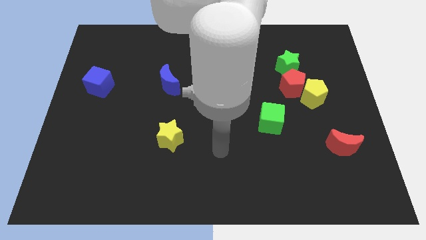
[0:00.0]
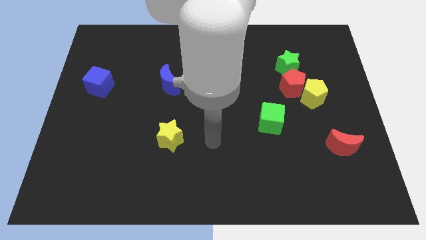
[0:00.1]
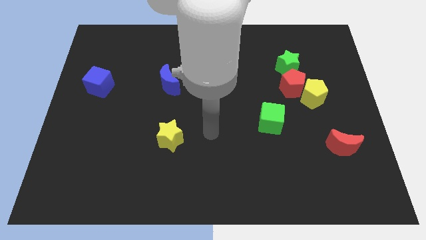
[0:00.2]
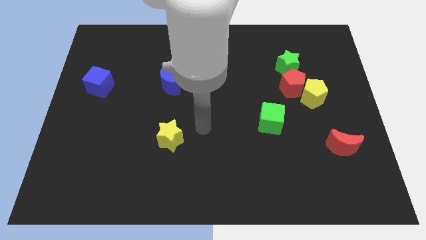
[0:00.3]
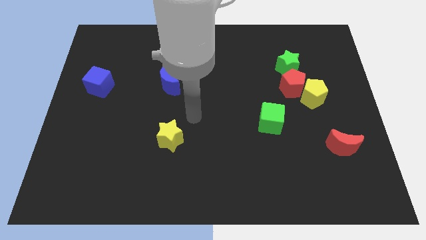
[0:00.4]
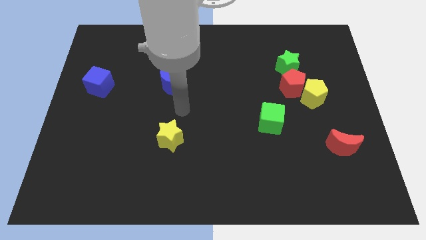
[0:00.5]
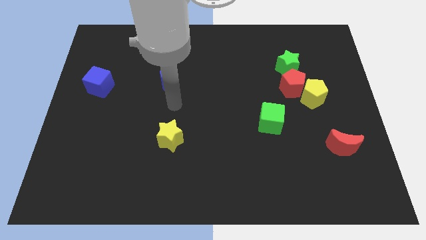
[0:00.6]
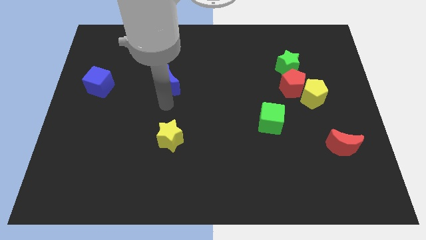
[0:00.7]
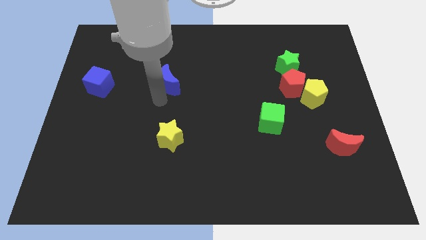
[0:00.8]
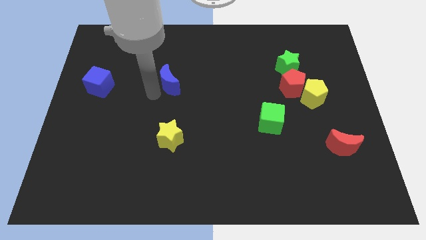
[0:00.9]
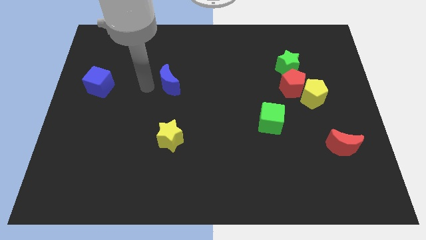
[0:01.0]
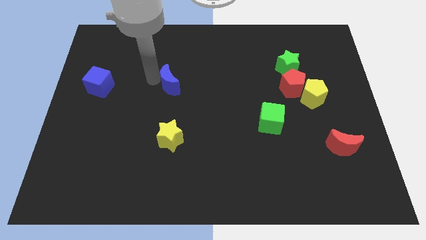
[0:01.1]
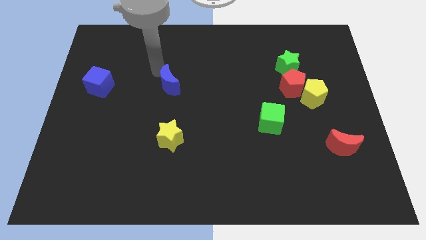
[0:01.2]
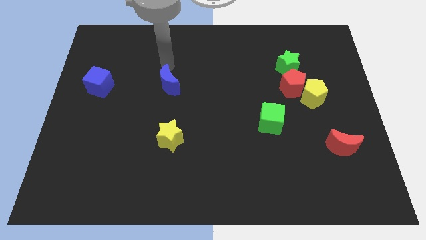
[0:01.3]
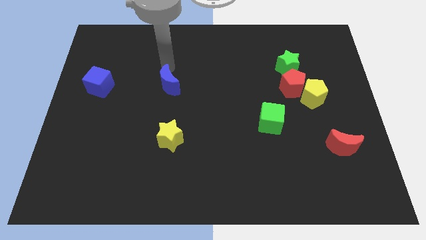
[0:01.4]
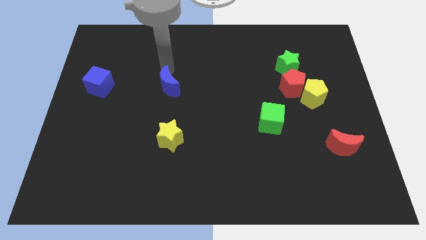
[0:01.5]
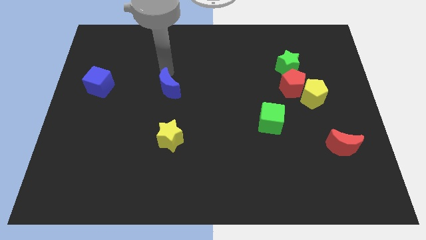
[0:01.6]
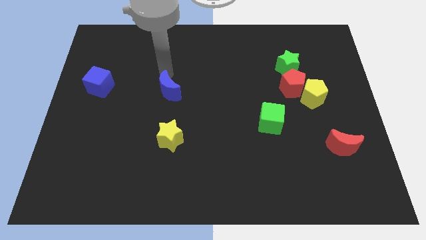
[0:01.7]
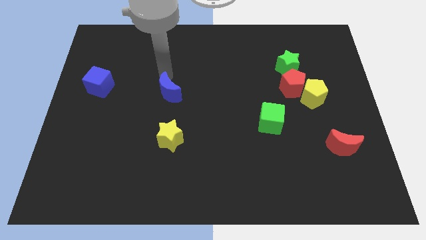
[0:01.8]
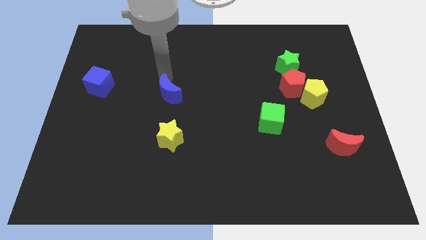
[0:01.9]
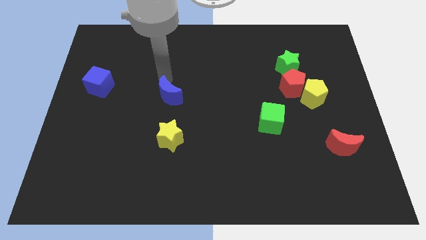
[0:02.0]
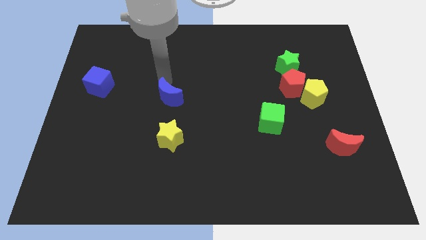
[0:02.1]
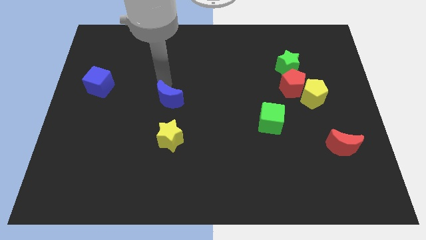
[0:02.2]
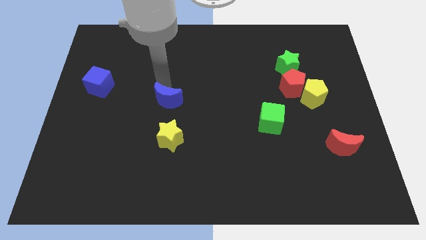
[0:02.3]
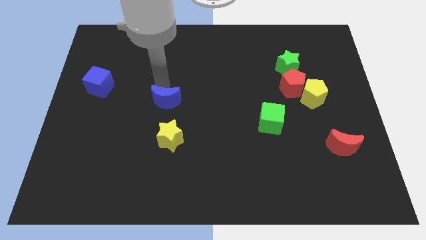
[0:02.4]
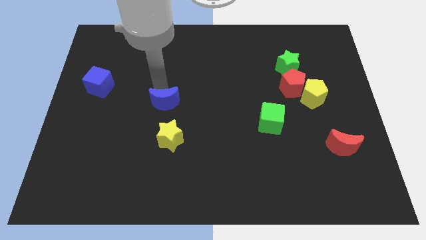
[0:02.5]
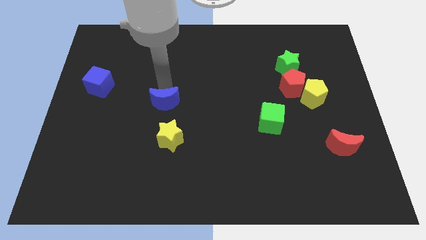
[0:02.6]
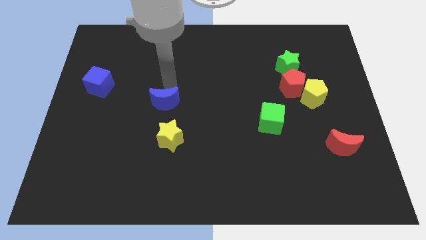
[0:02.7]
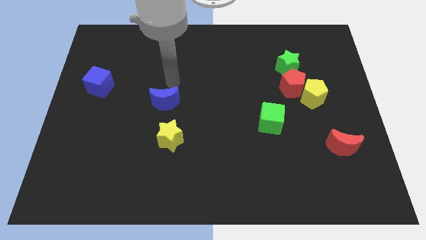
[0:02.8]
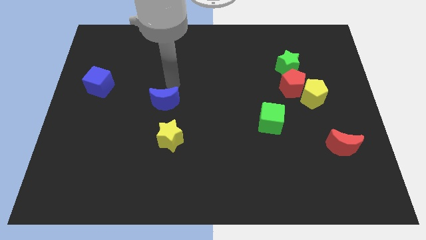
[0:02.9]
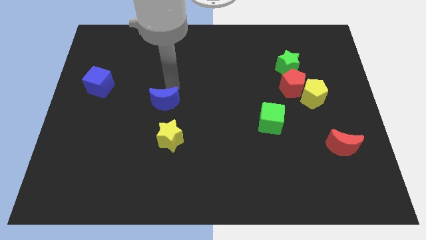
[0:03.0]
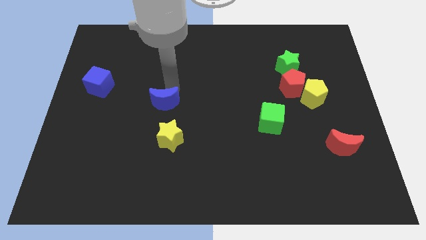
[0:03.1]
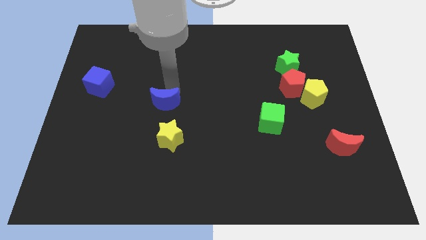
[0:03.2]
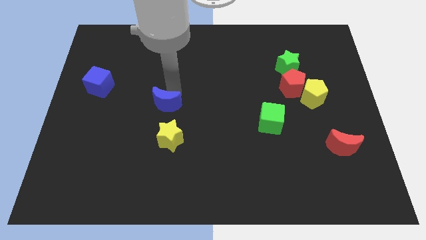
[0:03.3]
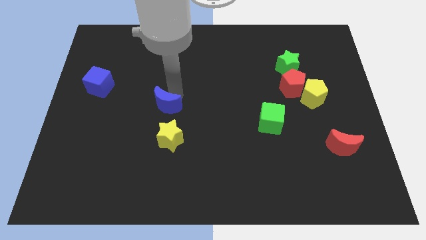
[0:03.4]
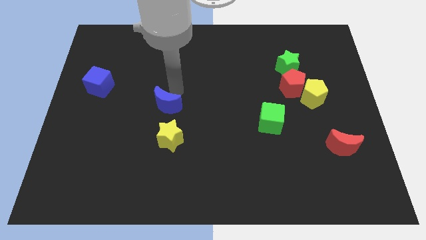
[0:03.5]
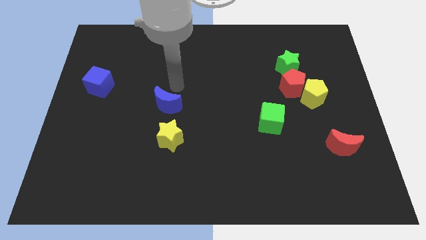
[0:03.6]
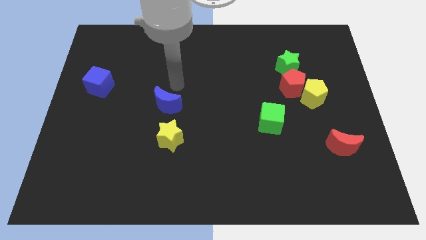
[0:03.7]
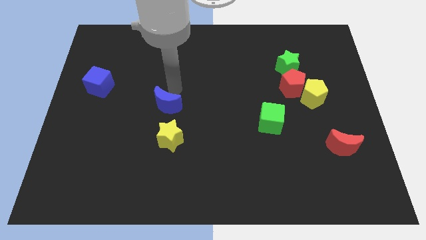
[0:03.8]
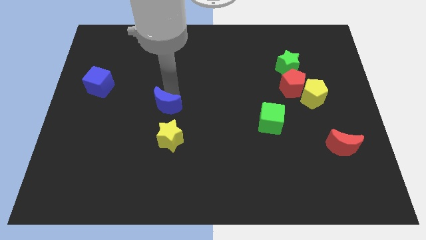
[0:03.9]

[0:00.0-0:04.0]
slightly move the blue moon down

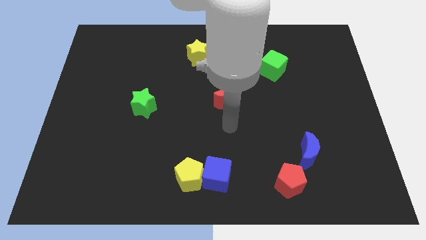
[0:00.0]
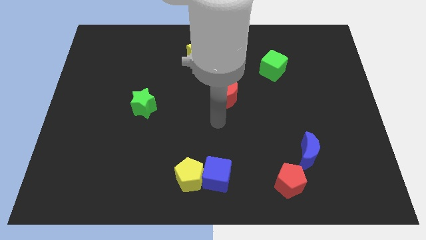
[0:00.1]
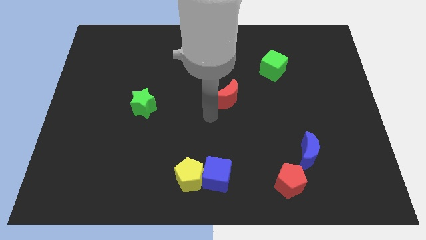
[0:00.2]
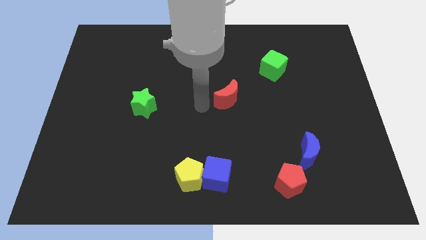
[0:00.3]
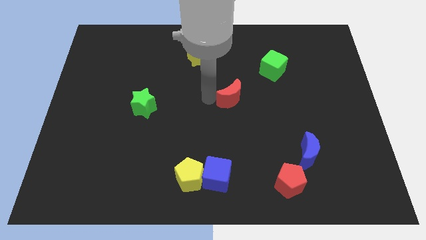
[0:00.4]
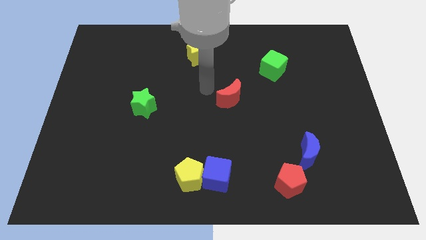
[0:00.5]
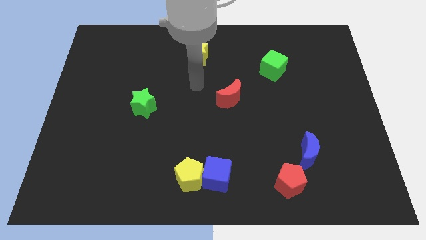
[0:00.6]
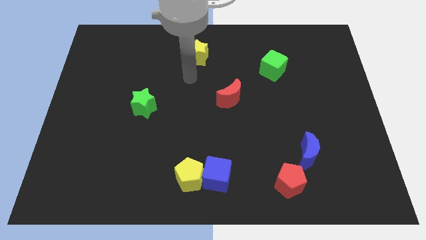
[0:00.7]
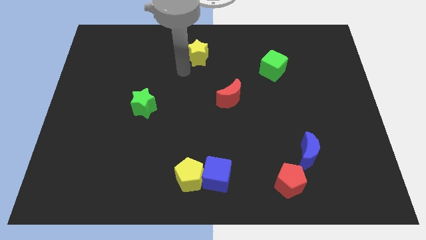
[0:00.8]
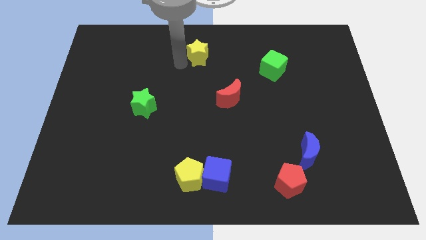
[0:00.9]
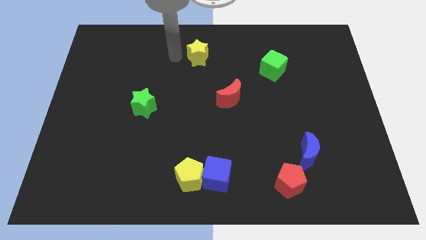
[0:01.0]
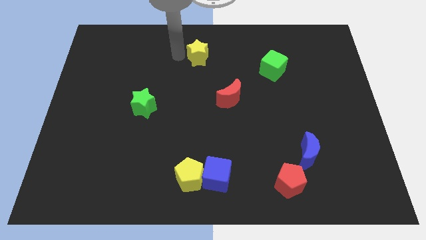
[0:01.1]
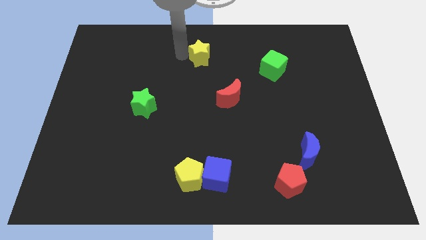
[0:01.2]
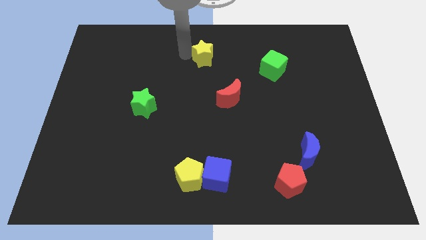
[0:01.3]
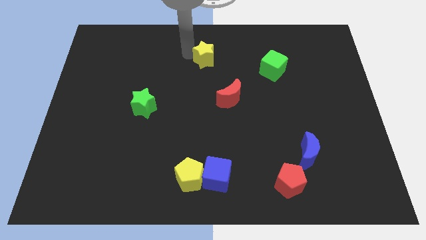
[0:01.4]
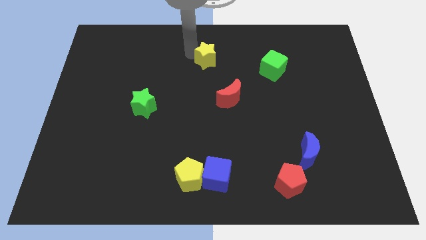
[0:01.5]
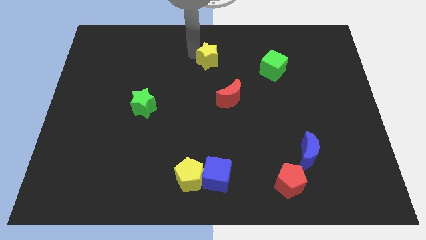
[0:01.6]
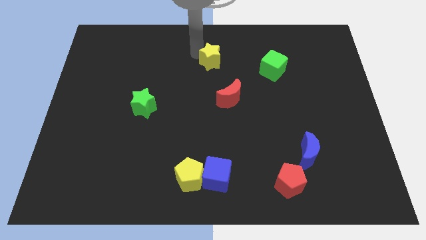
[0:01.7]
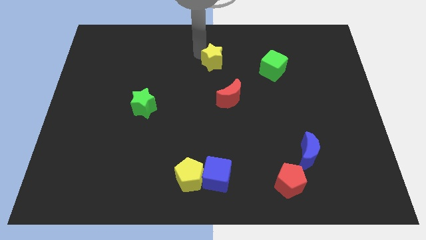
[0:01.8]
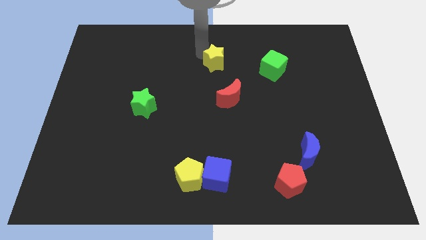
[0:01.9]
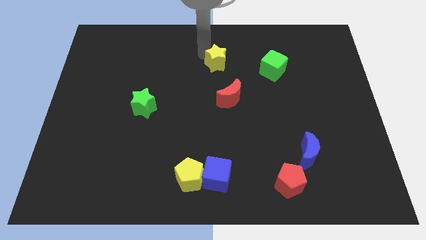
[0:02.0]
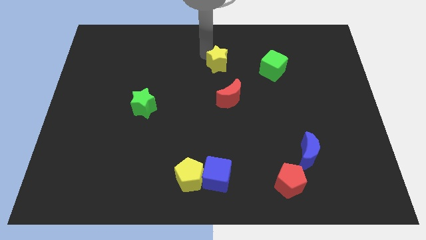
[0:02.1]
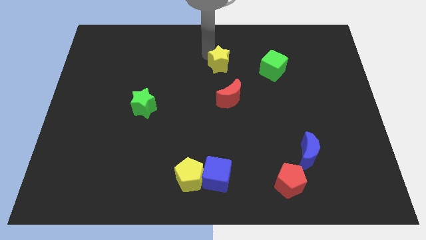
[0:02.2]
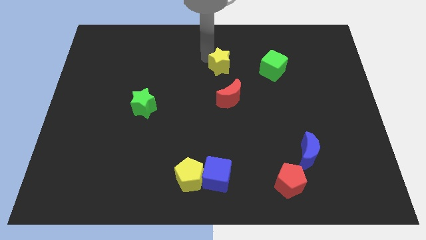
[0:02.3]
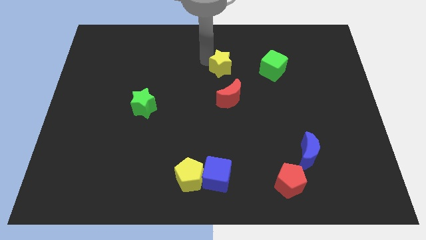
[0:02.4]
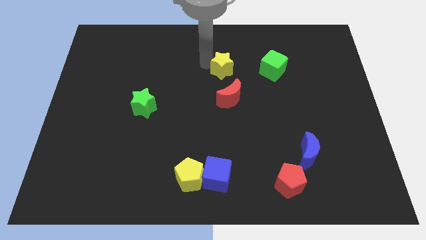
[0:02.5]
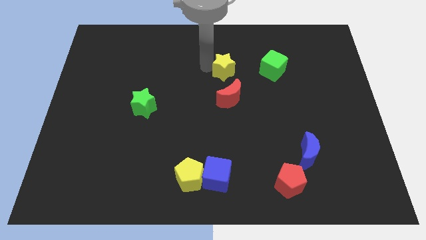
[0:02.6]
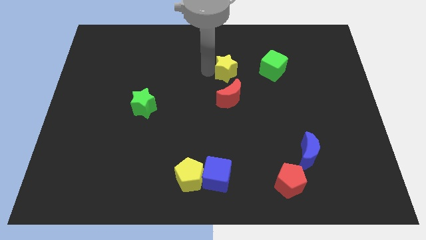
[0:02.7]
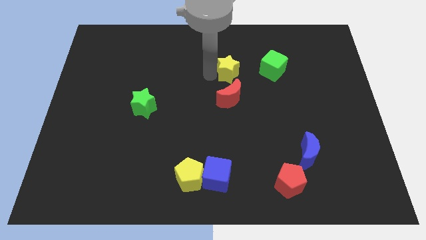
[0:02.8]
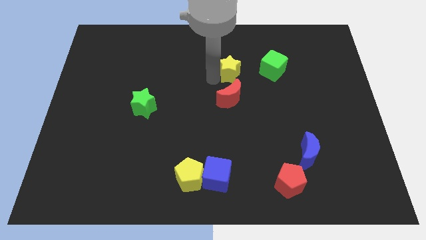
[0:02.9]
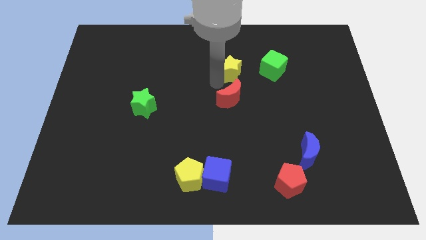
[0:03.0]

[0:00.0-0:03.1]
slightly move the yellow star to the right

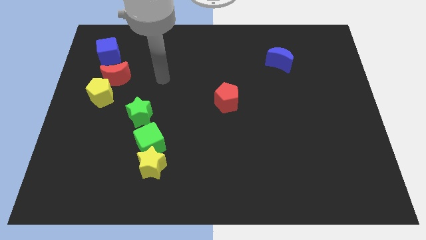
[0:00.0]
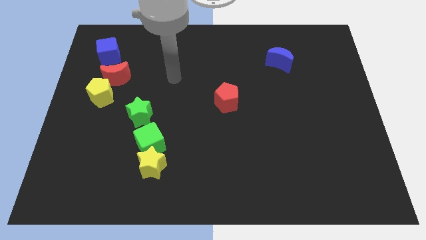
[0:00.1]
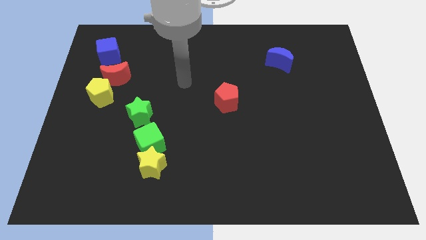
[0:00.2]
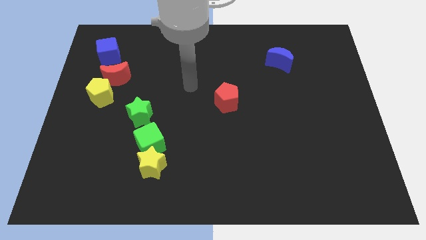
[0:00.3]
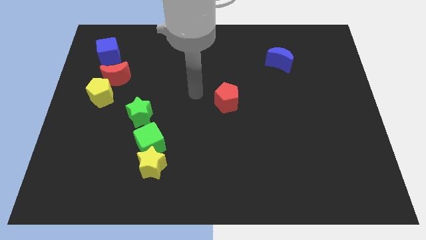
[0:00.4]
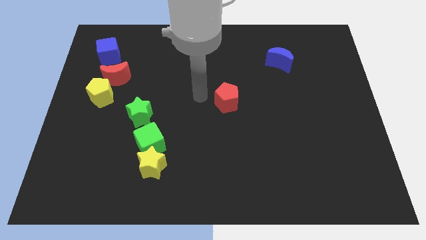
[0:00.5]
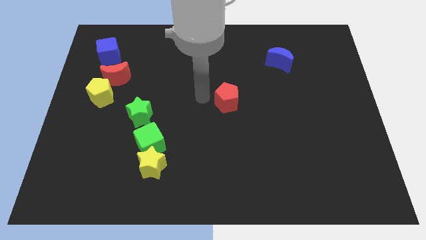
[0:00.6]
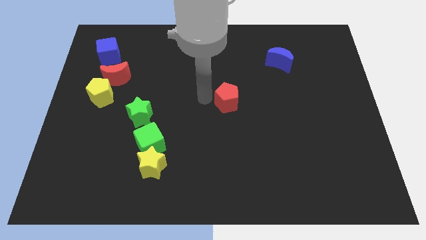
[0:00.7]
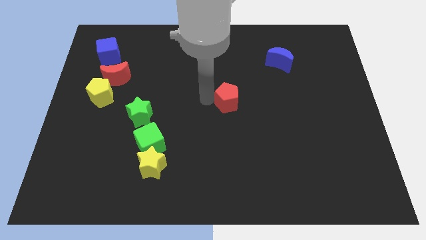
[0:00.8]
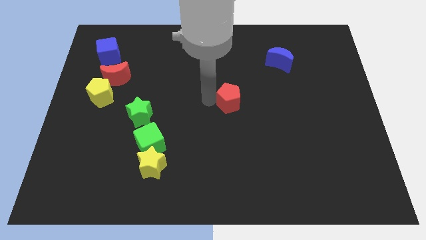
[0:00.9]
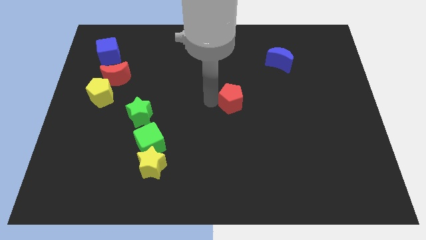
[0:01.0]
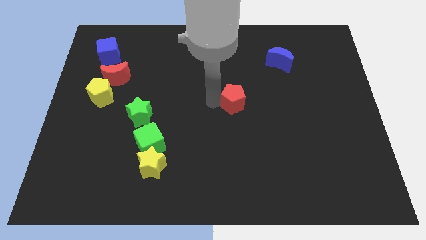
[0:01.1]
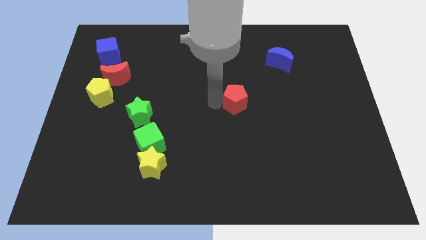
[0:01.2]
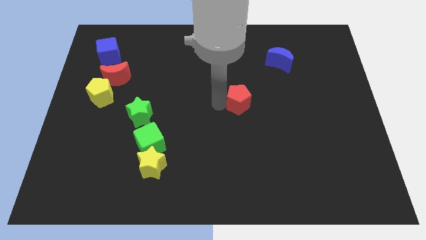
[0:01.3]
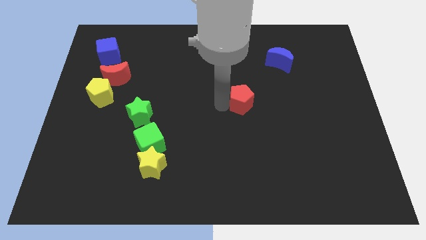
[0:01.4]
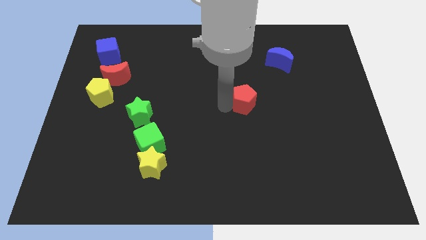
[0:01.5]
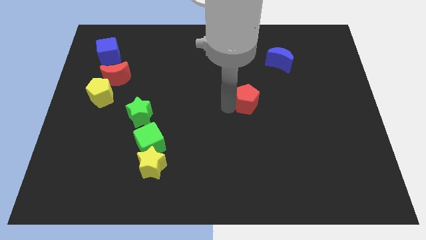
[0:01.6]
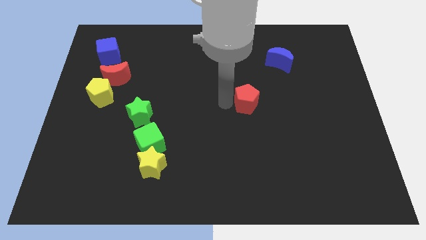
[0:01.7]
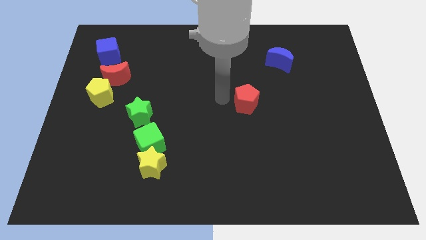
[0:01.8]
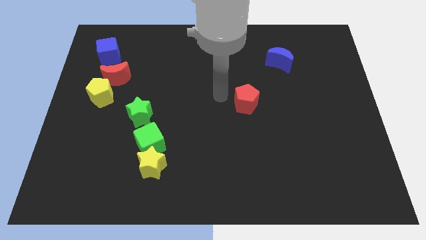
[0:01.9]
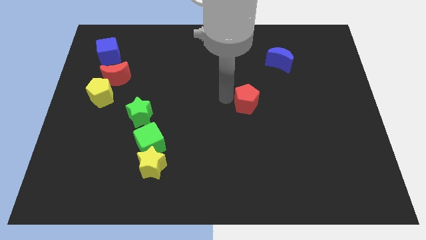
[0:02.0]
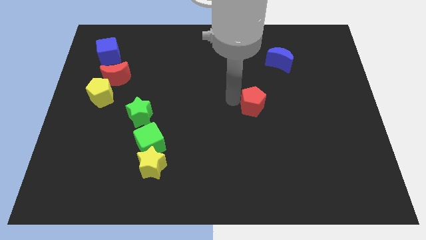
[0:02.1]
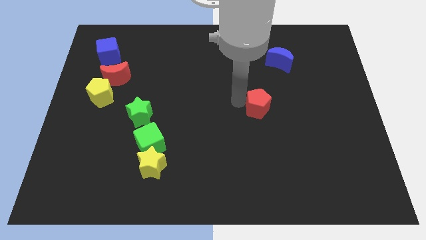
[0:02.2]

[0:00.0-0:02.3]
slightly move the red pentagon right
